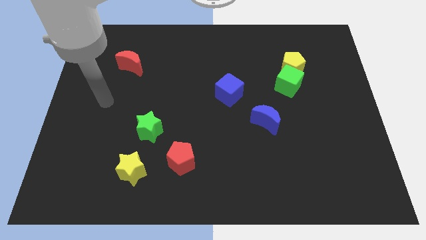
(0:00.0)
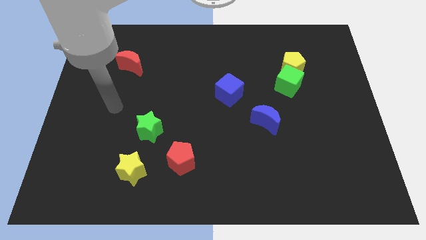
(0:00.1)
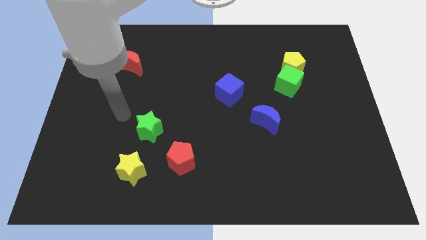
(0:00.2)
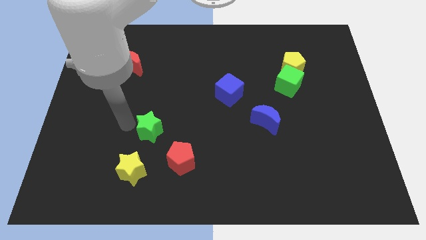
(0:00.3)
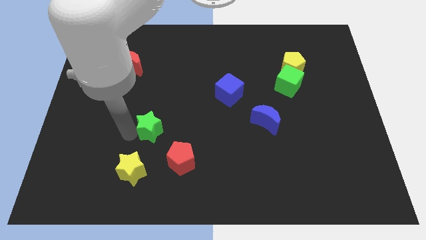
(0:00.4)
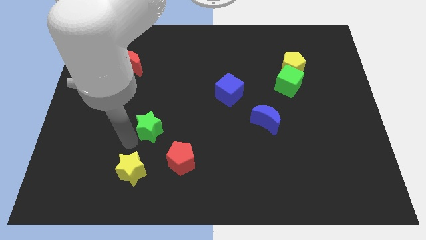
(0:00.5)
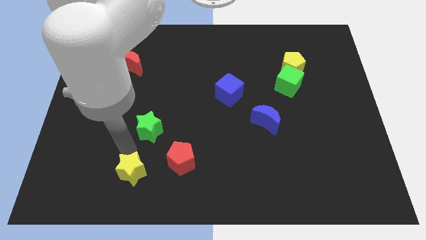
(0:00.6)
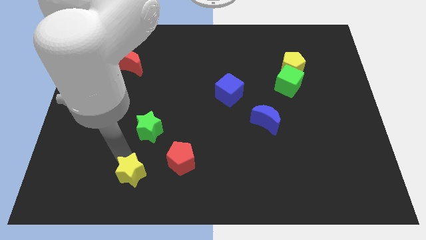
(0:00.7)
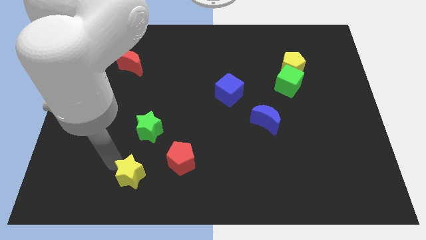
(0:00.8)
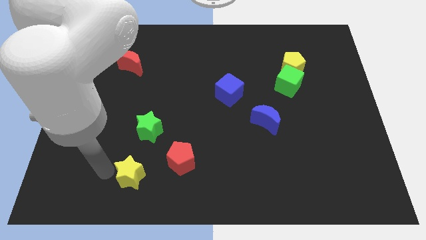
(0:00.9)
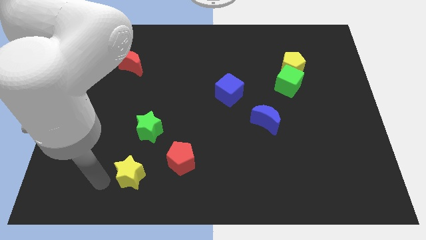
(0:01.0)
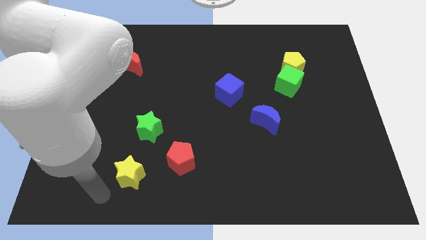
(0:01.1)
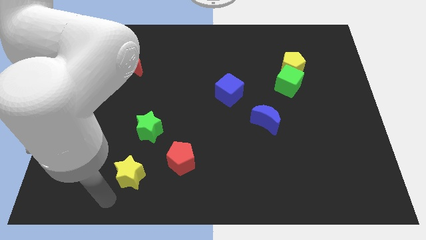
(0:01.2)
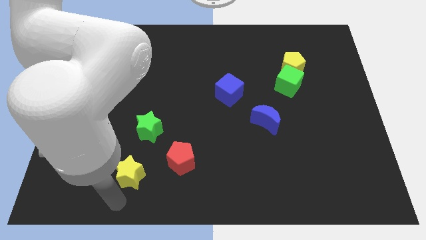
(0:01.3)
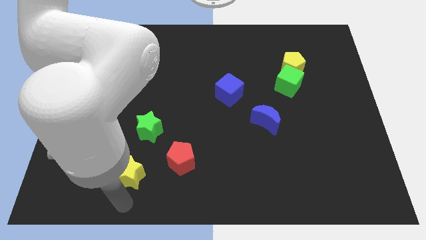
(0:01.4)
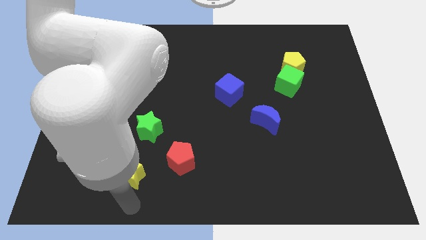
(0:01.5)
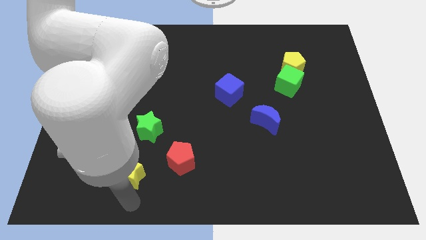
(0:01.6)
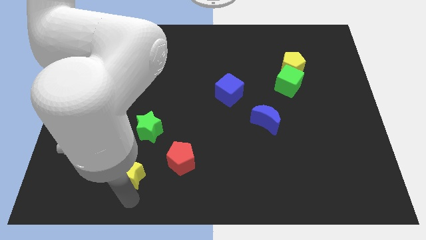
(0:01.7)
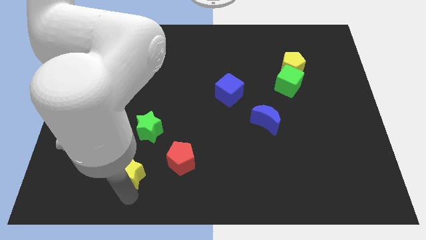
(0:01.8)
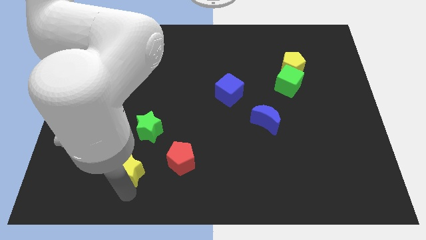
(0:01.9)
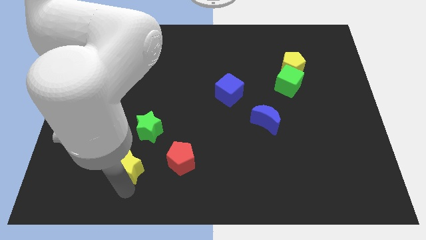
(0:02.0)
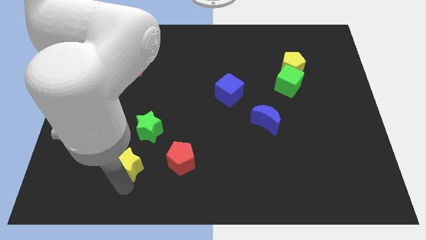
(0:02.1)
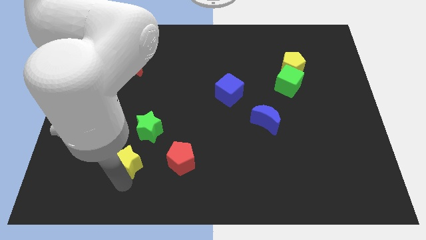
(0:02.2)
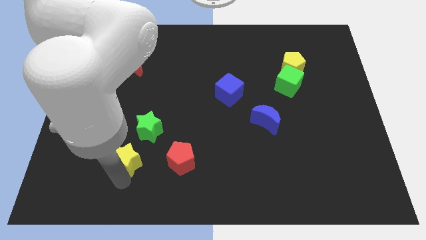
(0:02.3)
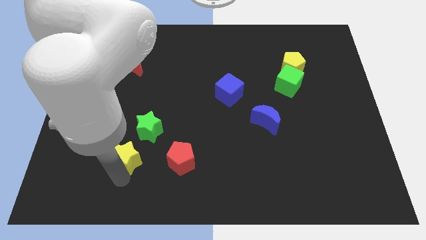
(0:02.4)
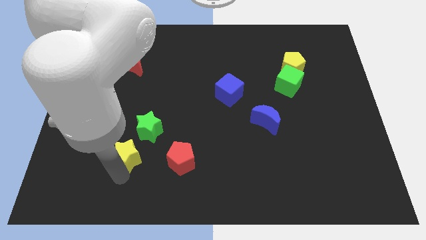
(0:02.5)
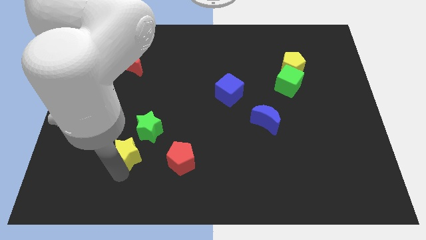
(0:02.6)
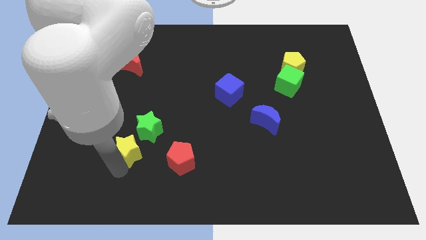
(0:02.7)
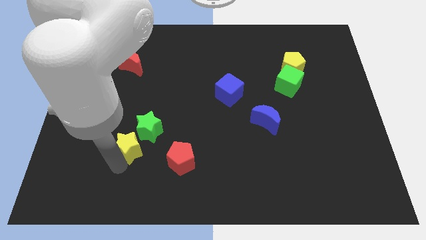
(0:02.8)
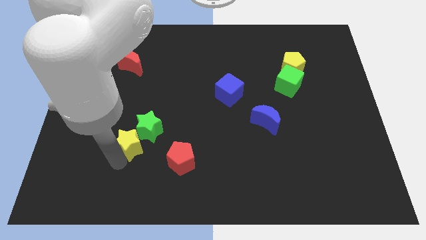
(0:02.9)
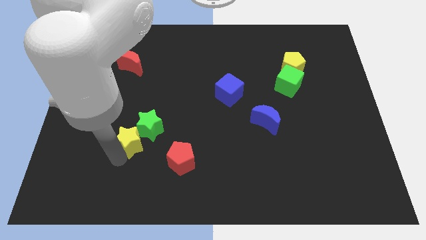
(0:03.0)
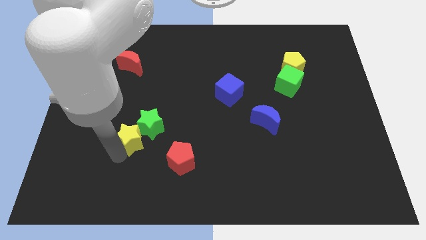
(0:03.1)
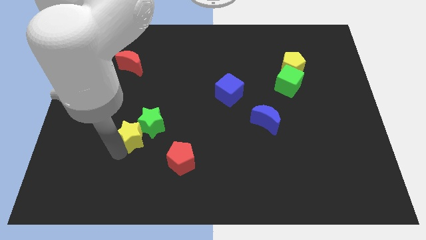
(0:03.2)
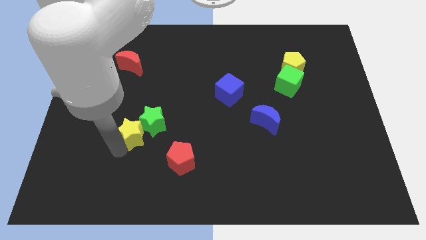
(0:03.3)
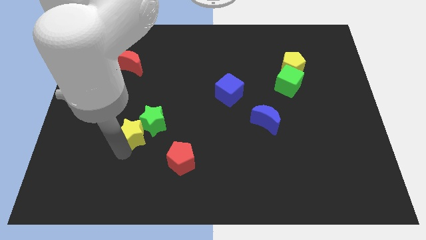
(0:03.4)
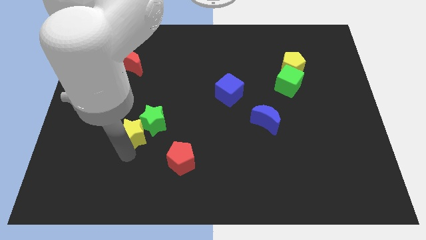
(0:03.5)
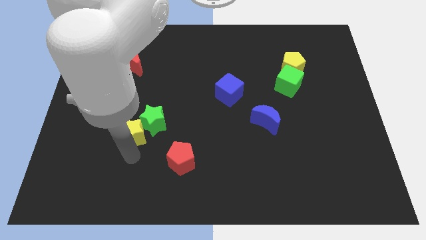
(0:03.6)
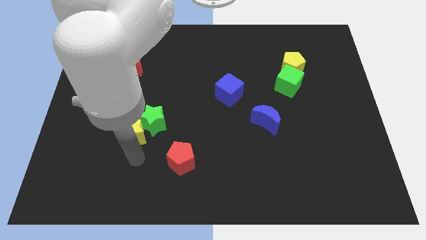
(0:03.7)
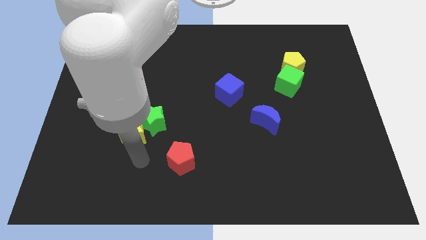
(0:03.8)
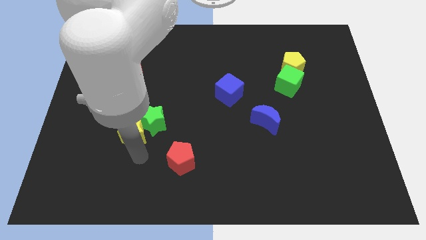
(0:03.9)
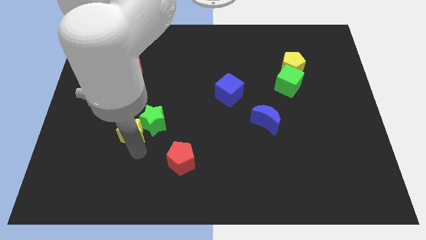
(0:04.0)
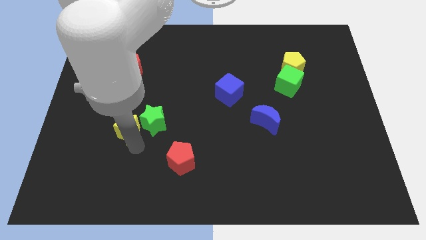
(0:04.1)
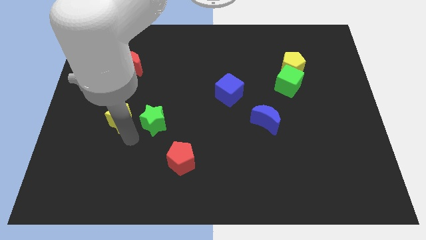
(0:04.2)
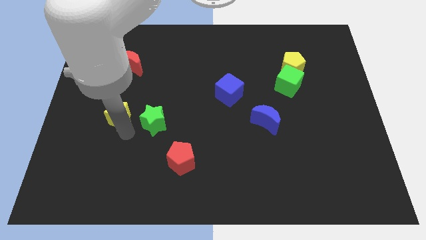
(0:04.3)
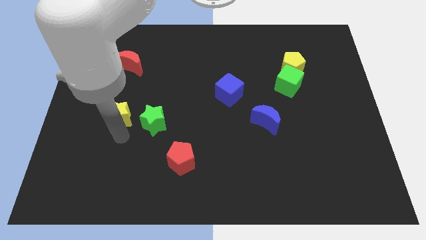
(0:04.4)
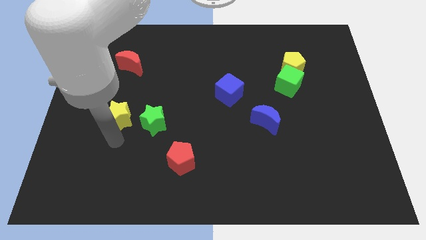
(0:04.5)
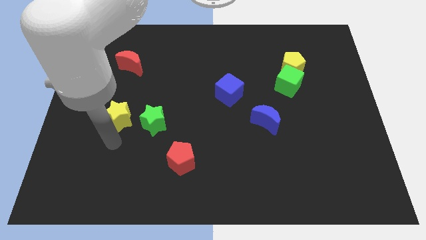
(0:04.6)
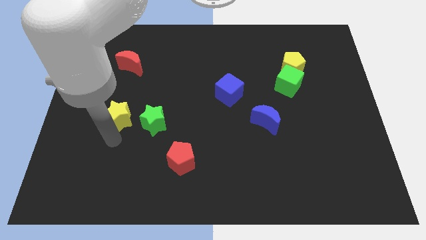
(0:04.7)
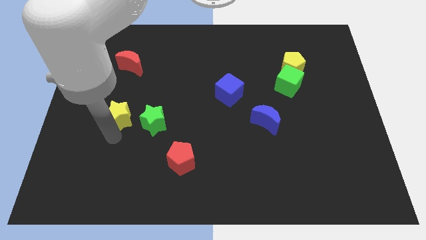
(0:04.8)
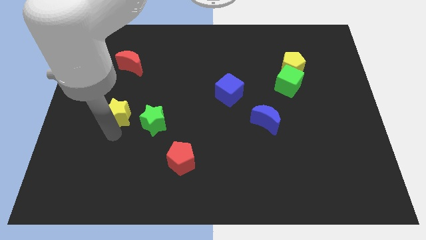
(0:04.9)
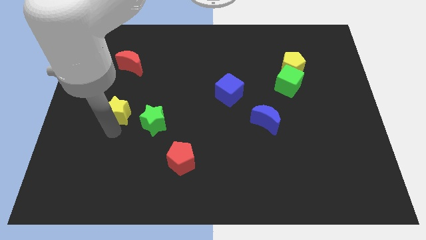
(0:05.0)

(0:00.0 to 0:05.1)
put the yellow star to the bottom side of the red moon

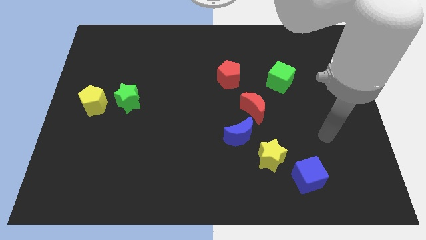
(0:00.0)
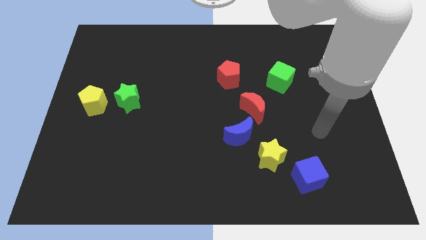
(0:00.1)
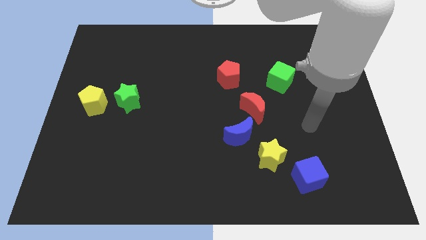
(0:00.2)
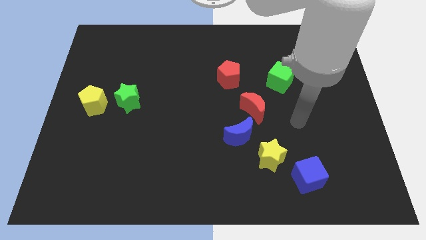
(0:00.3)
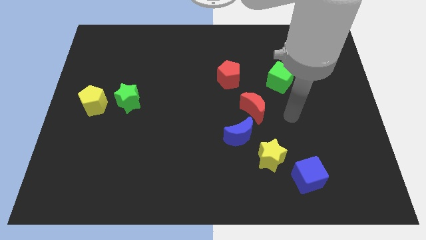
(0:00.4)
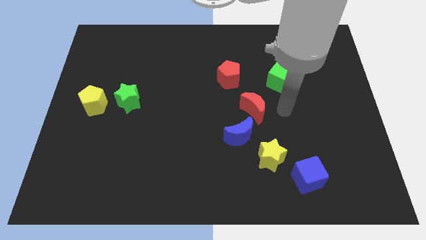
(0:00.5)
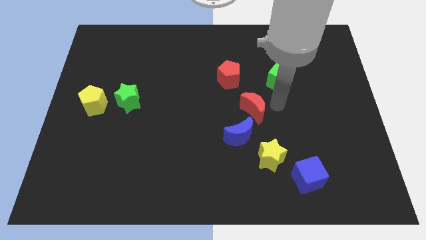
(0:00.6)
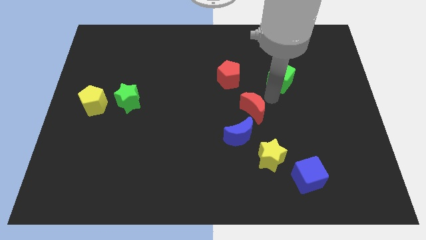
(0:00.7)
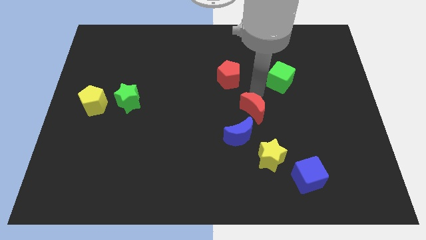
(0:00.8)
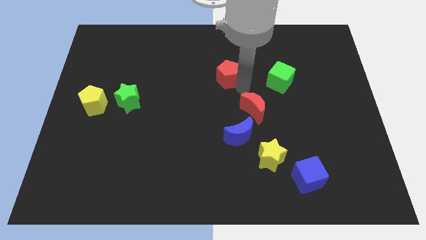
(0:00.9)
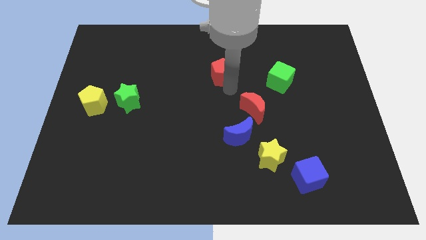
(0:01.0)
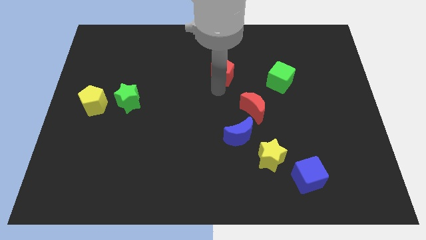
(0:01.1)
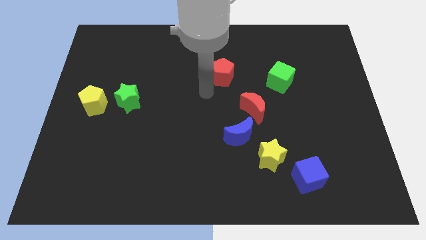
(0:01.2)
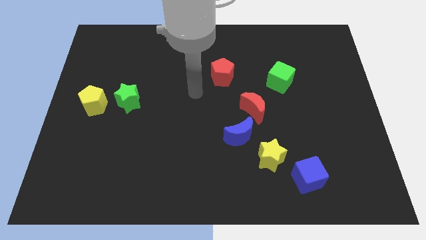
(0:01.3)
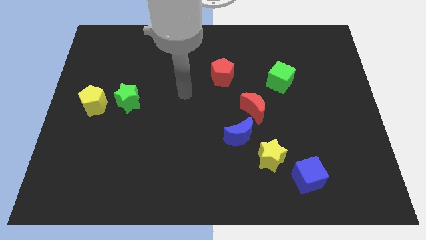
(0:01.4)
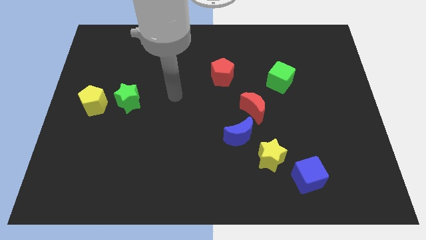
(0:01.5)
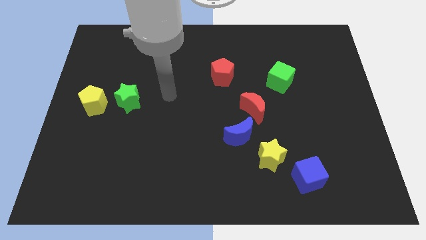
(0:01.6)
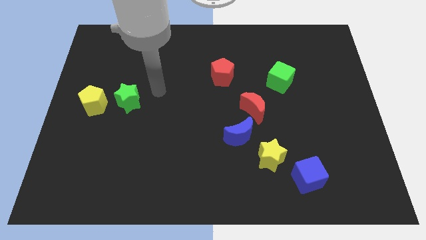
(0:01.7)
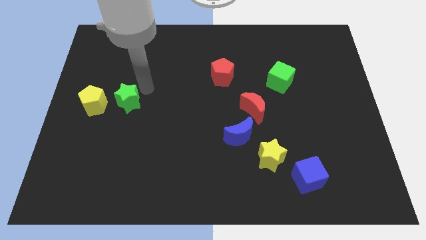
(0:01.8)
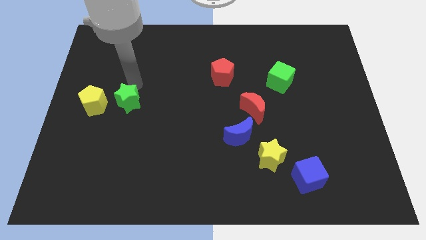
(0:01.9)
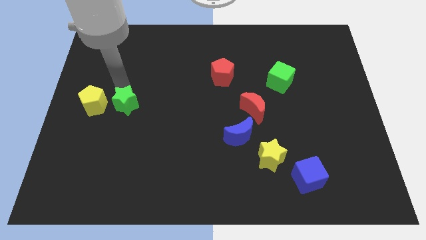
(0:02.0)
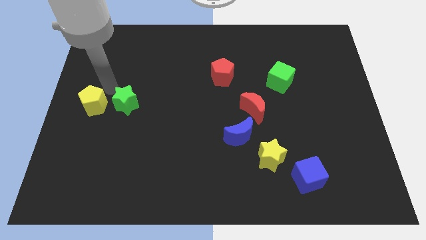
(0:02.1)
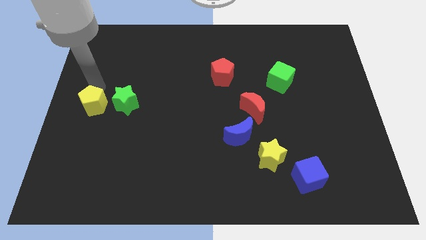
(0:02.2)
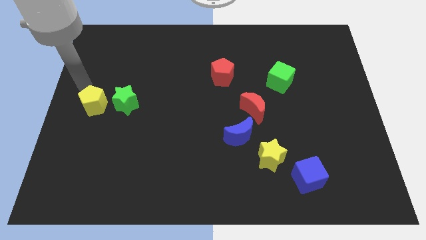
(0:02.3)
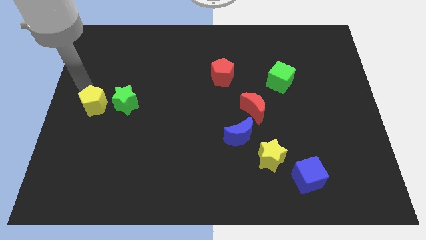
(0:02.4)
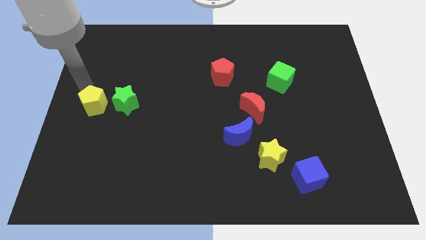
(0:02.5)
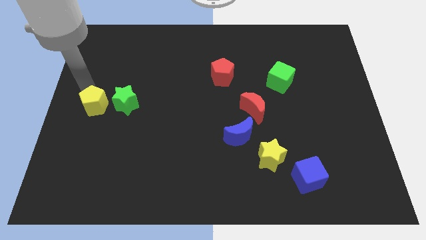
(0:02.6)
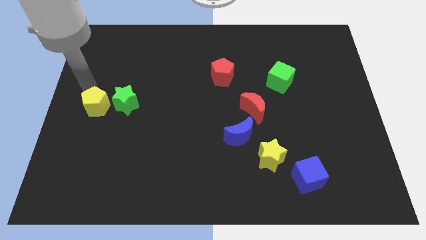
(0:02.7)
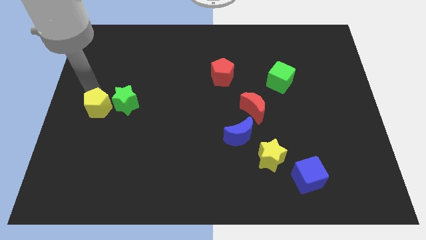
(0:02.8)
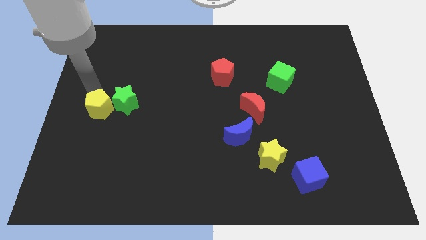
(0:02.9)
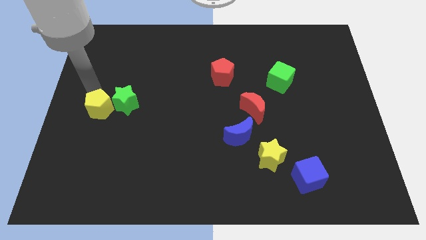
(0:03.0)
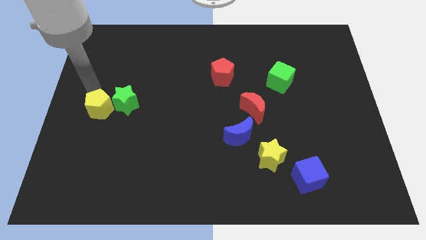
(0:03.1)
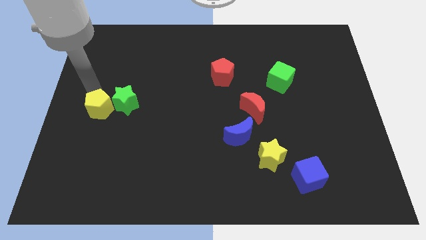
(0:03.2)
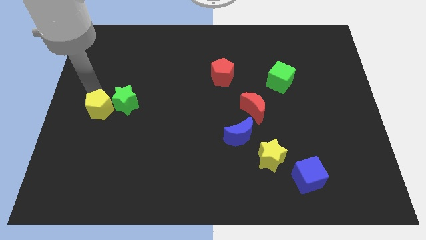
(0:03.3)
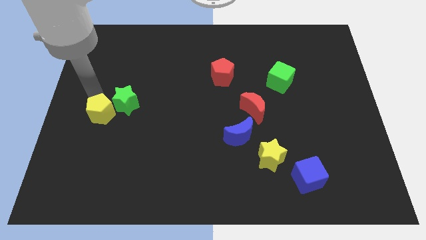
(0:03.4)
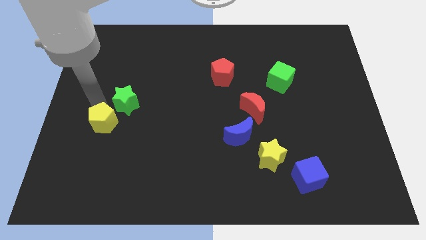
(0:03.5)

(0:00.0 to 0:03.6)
put the yellow pentagon to the bottom side of the green star
